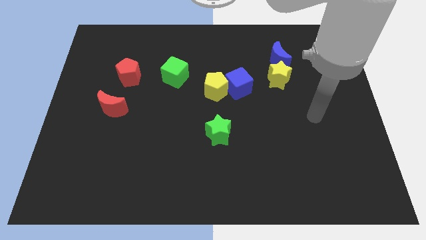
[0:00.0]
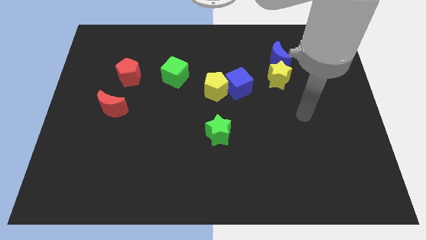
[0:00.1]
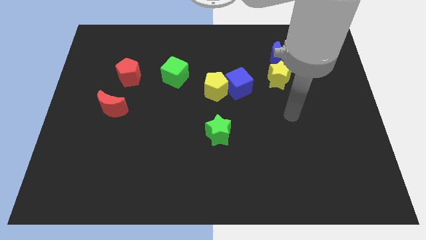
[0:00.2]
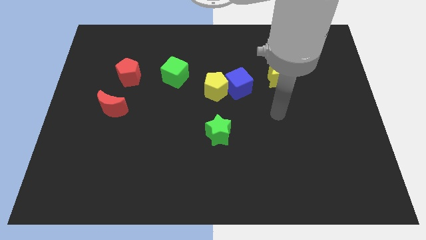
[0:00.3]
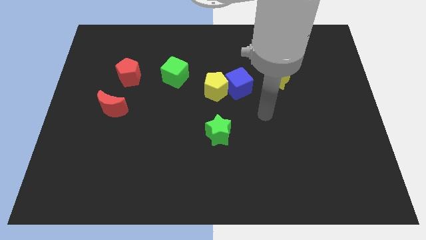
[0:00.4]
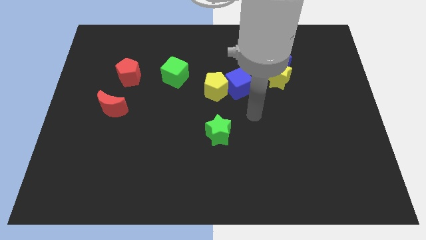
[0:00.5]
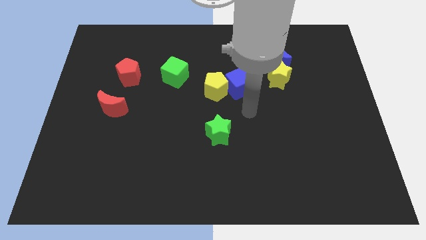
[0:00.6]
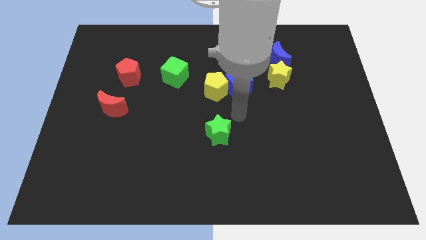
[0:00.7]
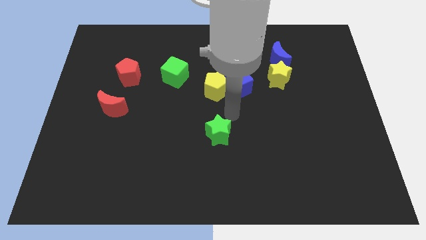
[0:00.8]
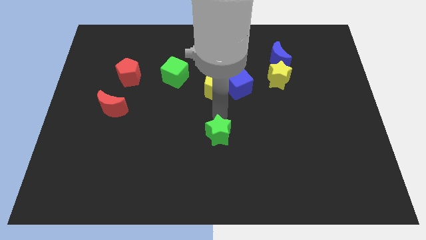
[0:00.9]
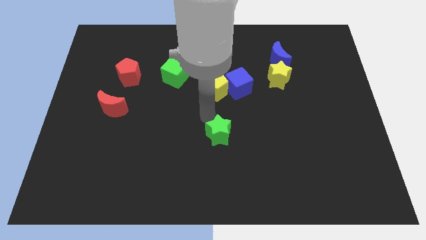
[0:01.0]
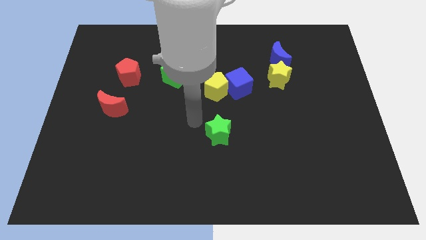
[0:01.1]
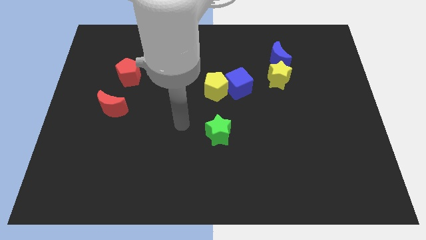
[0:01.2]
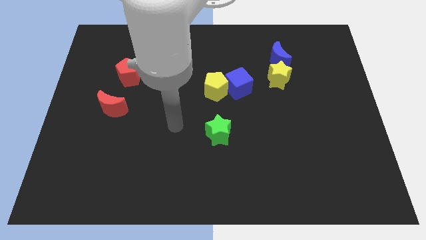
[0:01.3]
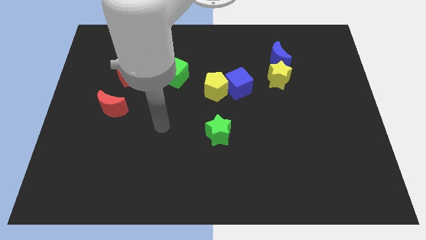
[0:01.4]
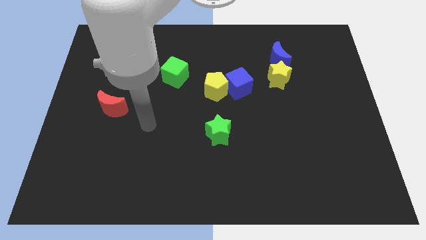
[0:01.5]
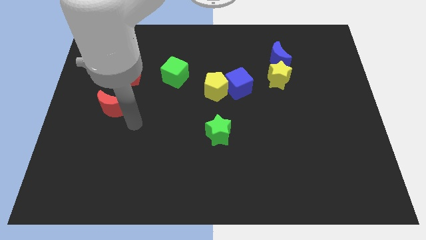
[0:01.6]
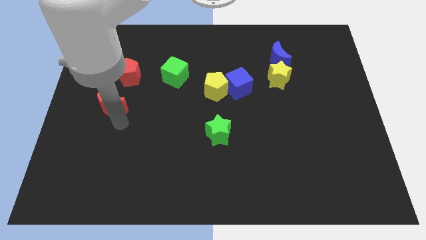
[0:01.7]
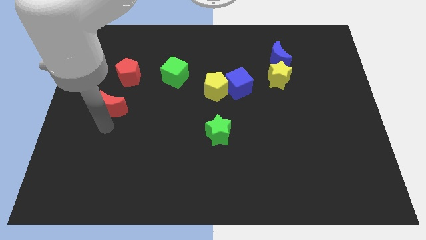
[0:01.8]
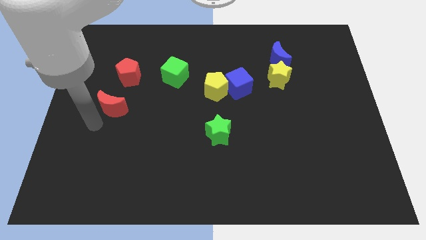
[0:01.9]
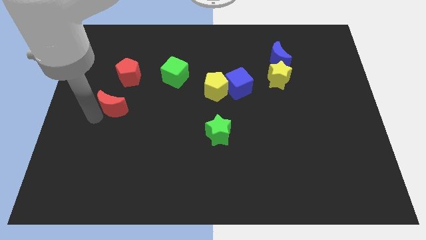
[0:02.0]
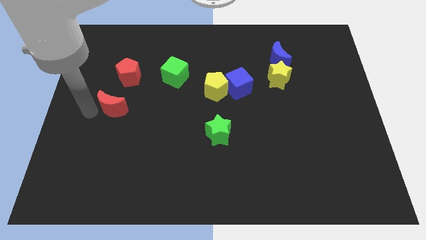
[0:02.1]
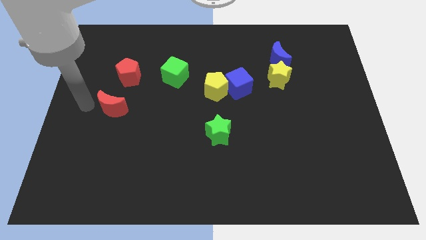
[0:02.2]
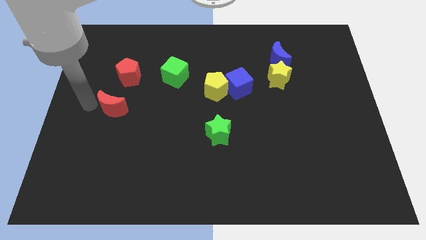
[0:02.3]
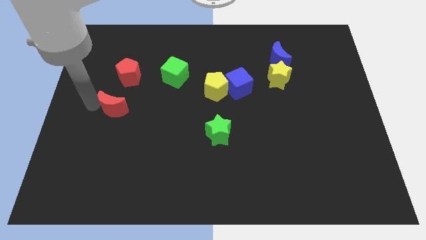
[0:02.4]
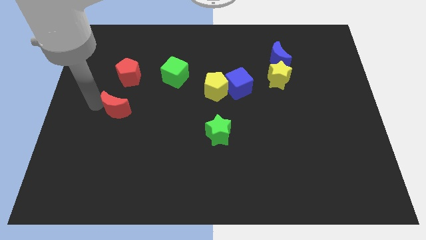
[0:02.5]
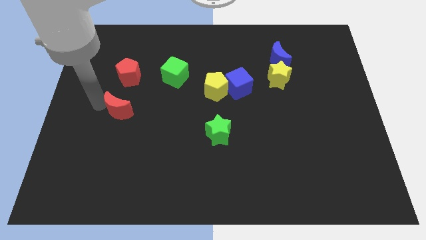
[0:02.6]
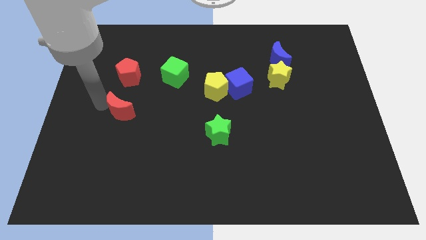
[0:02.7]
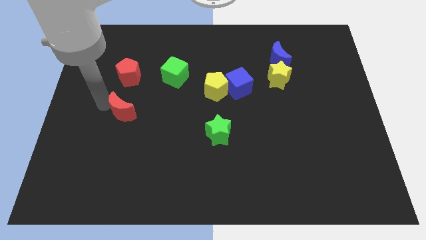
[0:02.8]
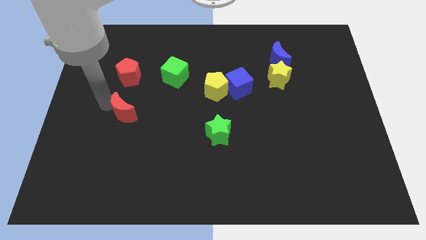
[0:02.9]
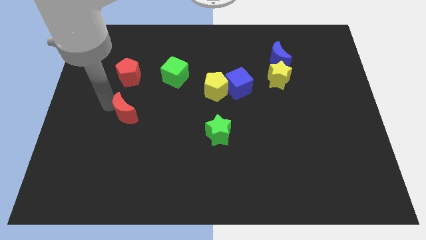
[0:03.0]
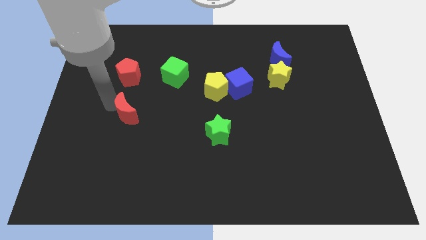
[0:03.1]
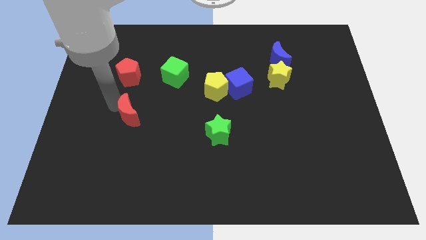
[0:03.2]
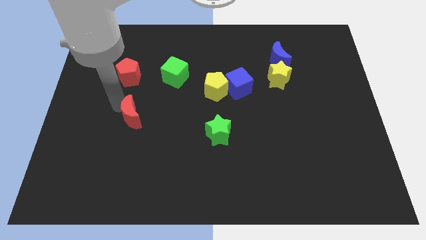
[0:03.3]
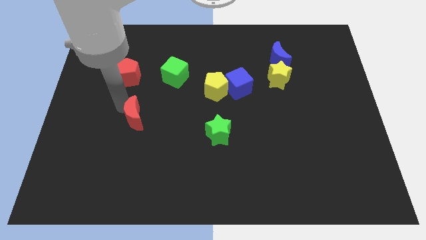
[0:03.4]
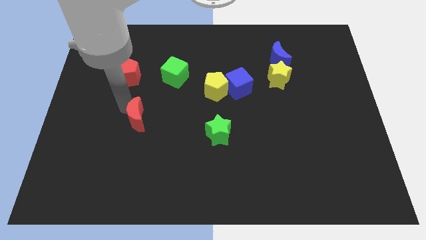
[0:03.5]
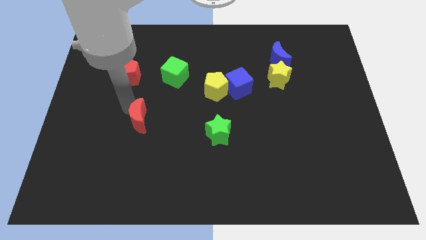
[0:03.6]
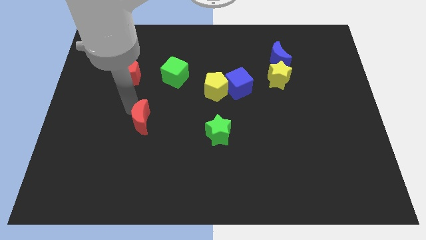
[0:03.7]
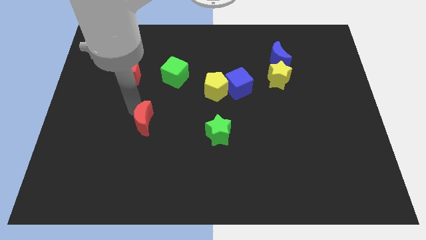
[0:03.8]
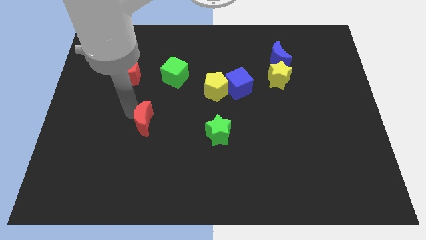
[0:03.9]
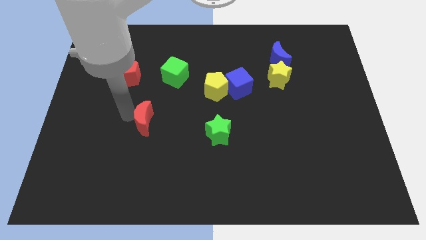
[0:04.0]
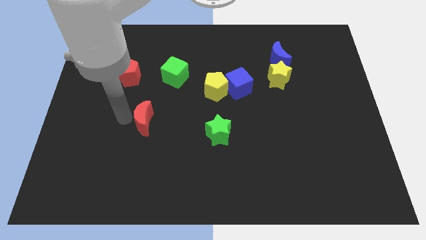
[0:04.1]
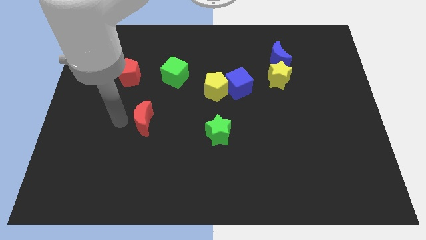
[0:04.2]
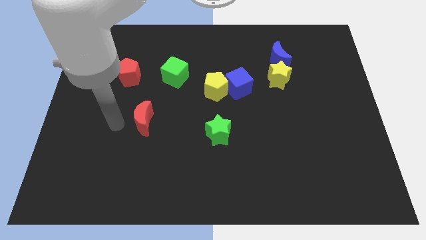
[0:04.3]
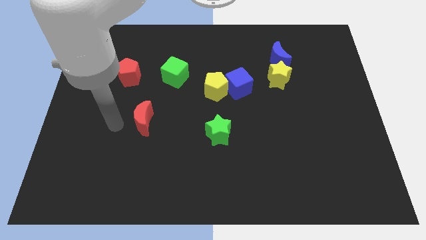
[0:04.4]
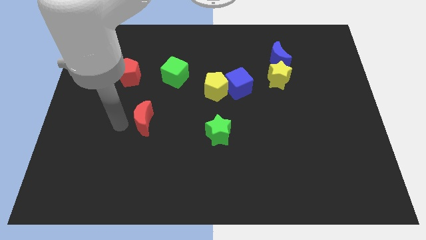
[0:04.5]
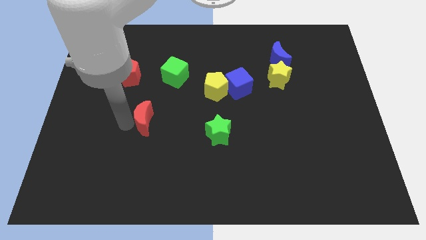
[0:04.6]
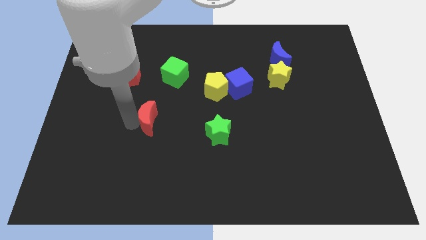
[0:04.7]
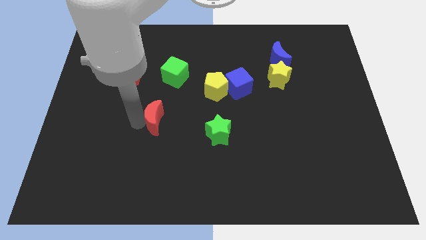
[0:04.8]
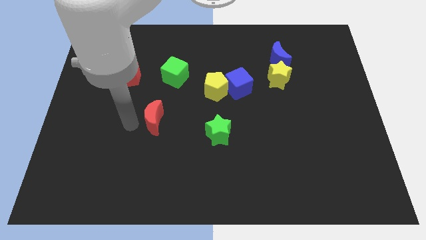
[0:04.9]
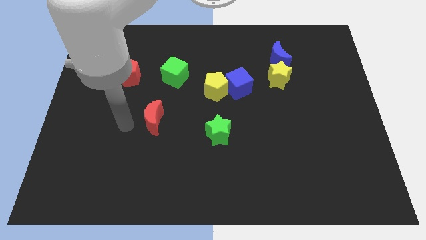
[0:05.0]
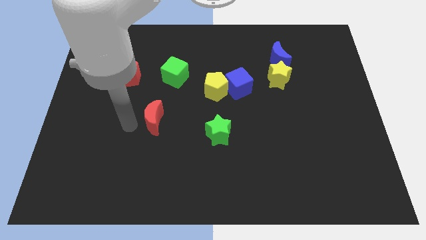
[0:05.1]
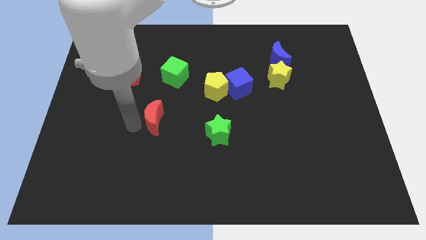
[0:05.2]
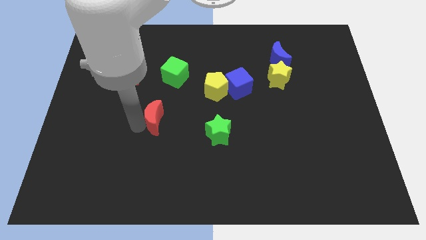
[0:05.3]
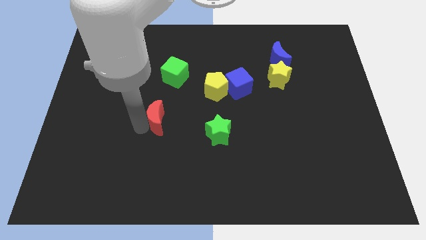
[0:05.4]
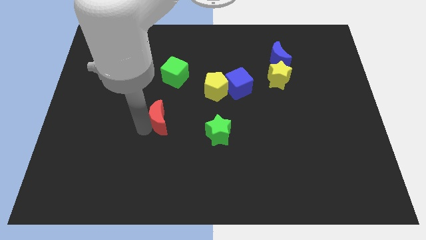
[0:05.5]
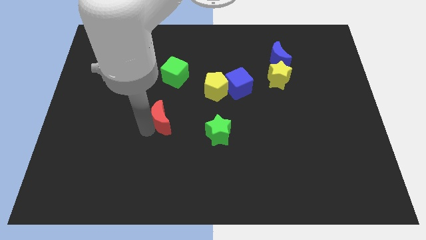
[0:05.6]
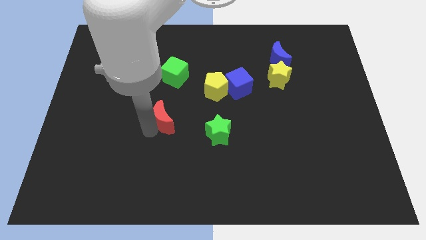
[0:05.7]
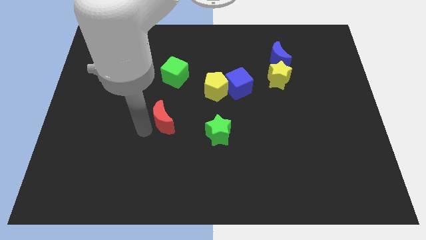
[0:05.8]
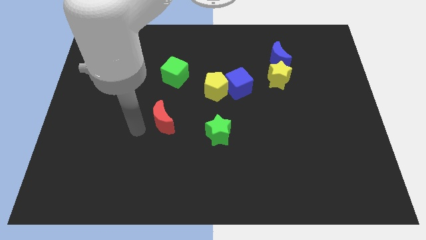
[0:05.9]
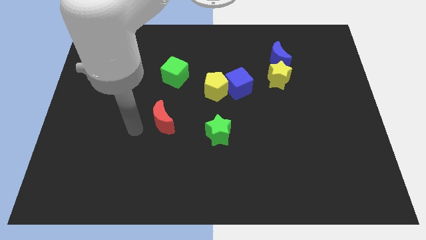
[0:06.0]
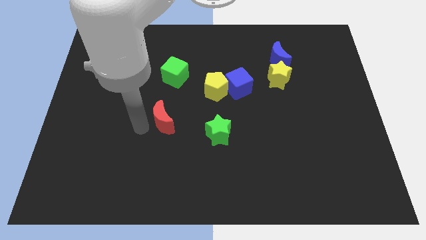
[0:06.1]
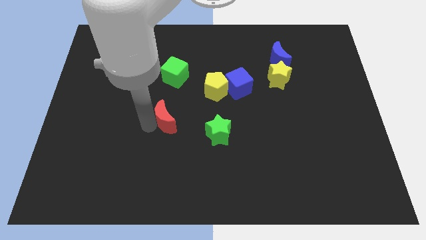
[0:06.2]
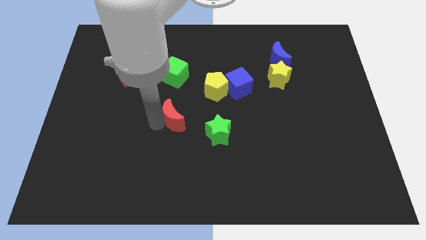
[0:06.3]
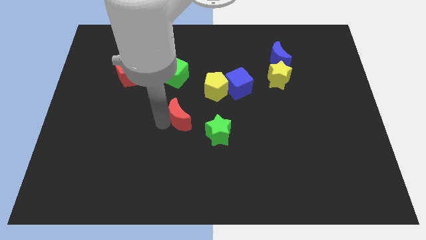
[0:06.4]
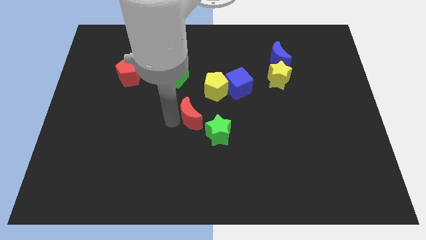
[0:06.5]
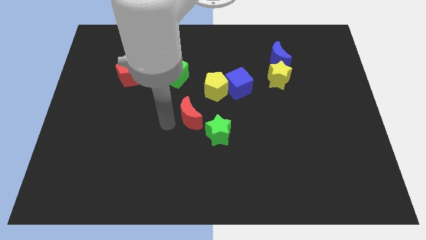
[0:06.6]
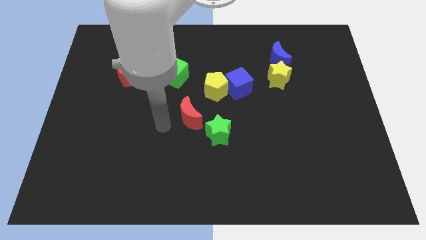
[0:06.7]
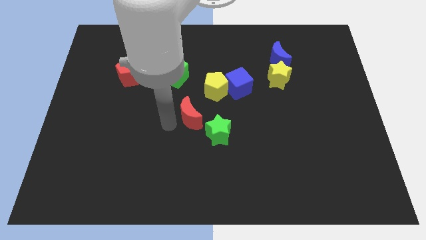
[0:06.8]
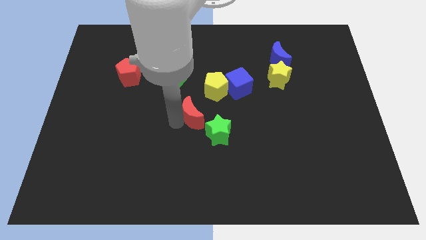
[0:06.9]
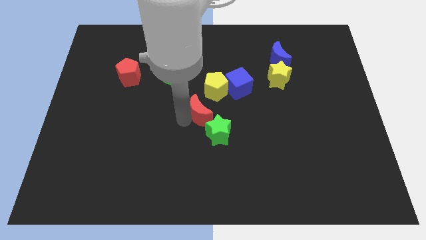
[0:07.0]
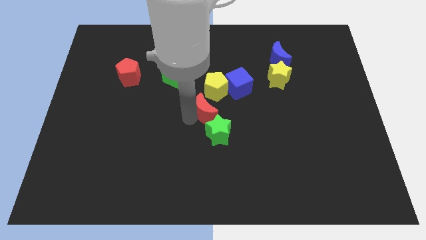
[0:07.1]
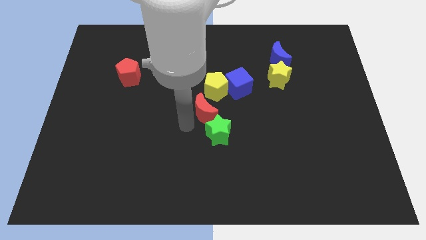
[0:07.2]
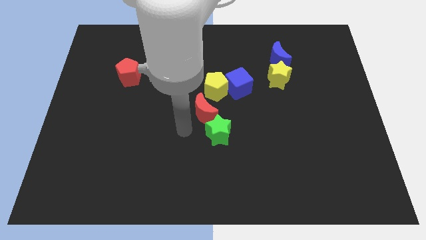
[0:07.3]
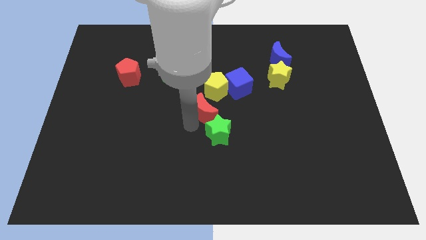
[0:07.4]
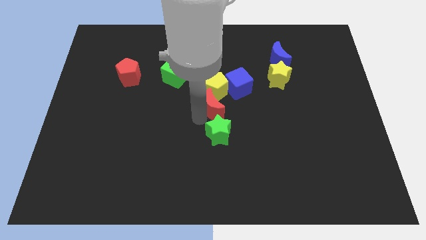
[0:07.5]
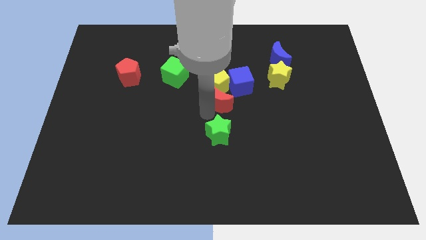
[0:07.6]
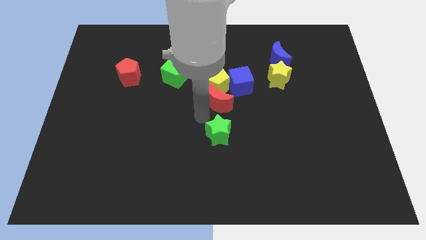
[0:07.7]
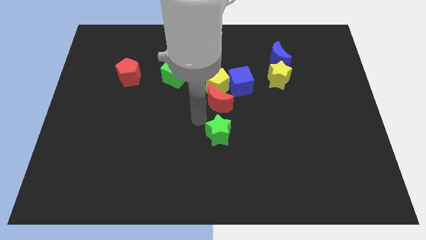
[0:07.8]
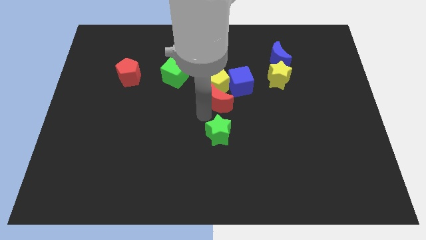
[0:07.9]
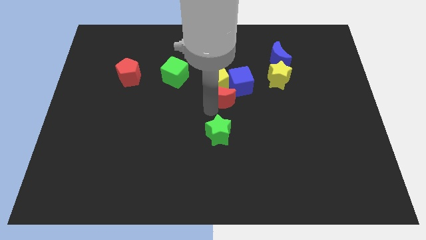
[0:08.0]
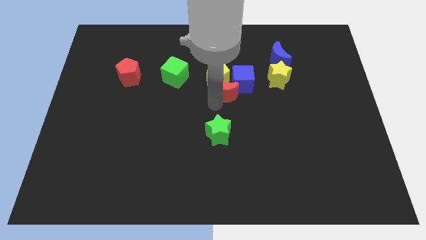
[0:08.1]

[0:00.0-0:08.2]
slide the red moon close to the blue cube
